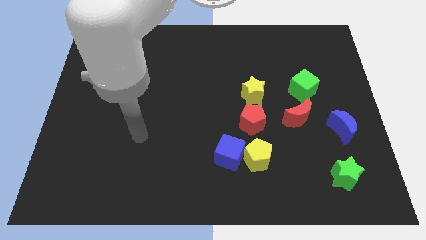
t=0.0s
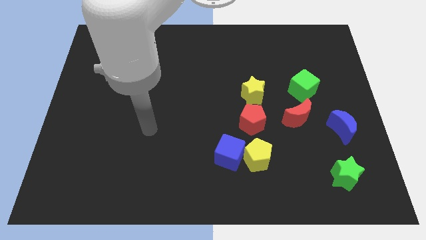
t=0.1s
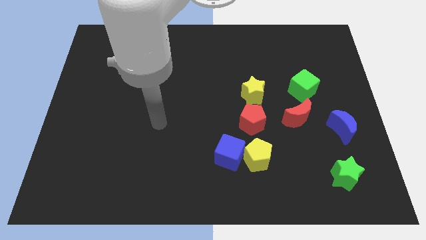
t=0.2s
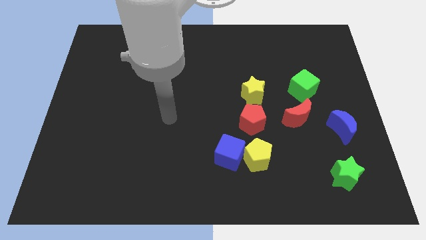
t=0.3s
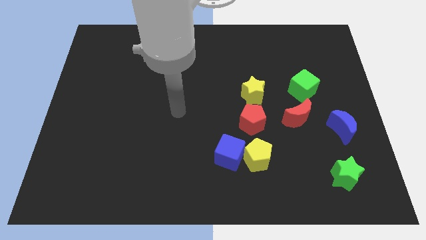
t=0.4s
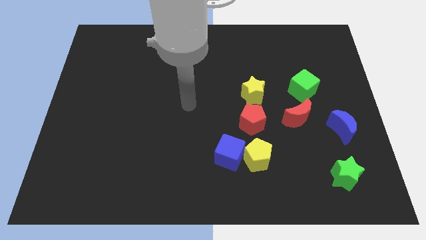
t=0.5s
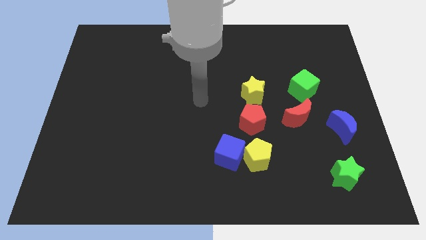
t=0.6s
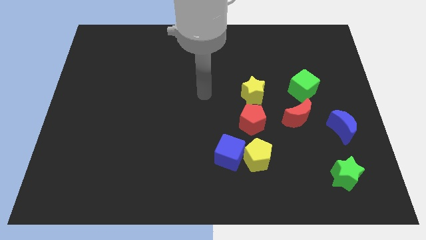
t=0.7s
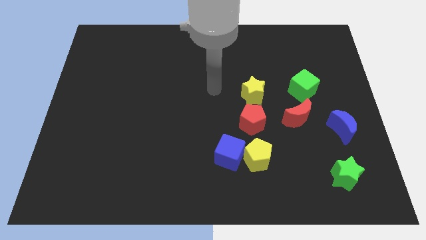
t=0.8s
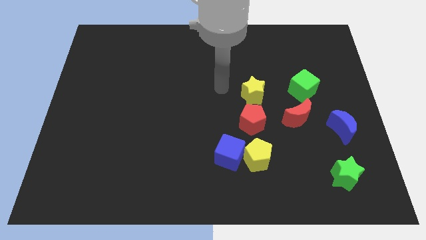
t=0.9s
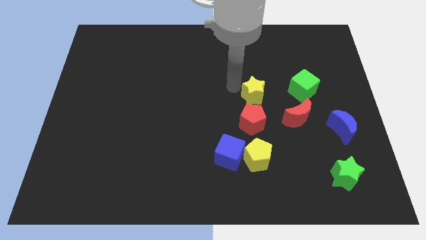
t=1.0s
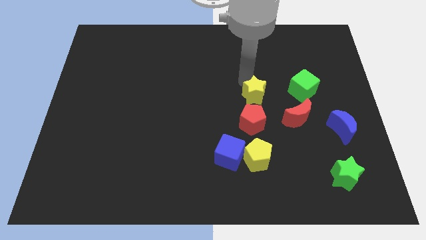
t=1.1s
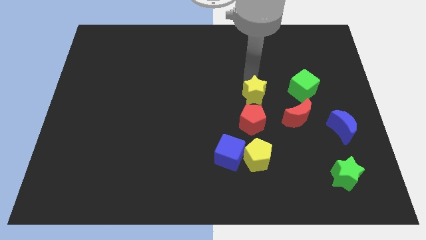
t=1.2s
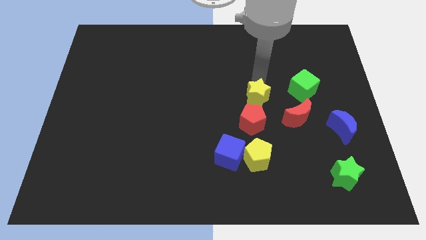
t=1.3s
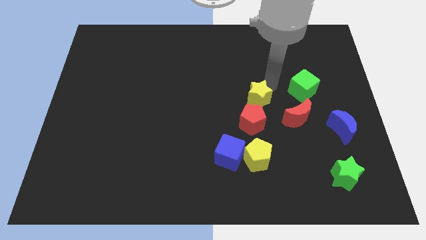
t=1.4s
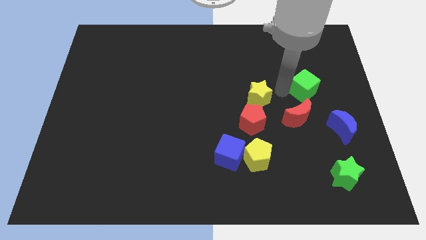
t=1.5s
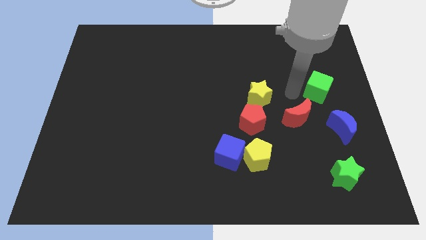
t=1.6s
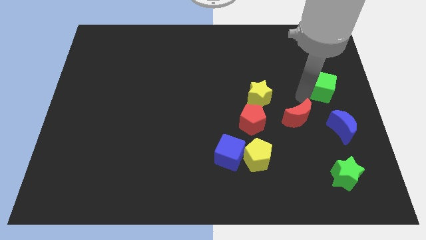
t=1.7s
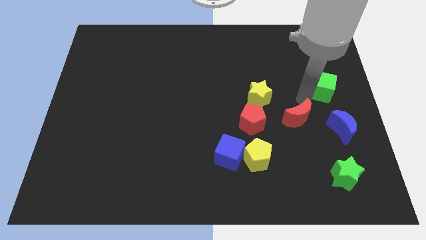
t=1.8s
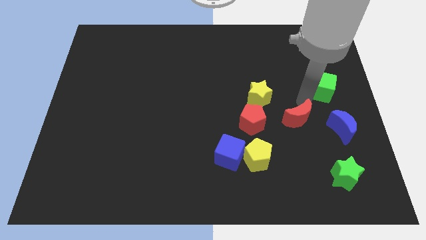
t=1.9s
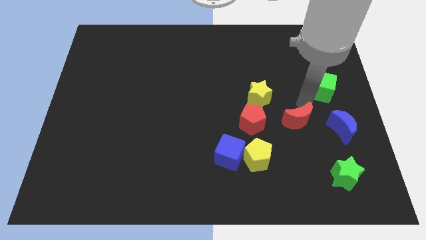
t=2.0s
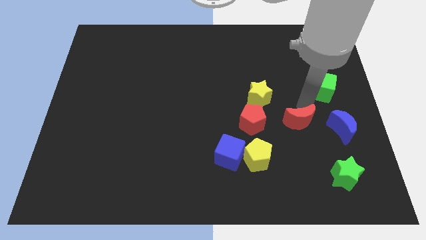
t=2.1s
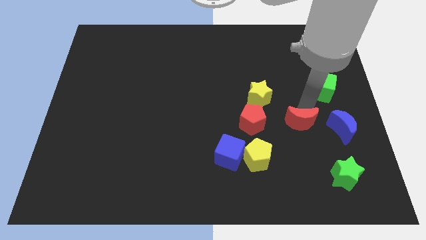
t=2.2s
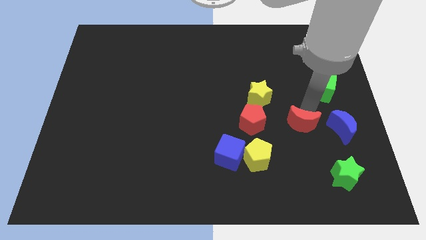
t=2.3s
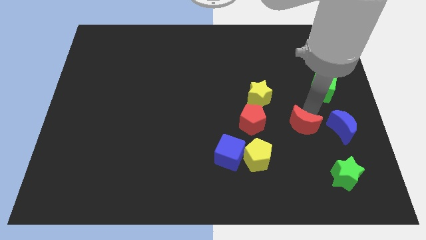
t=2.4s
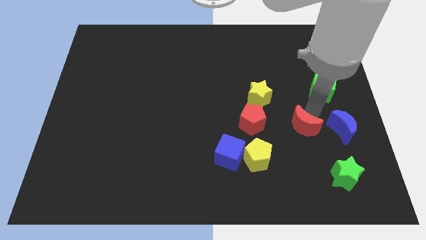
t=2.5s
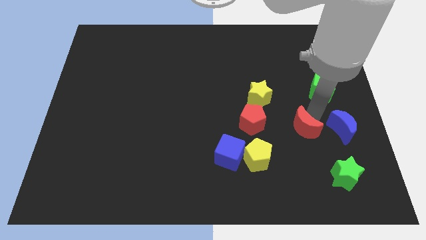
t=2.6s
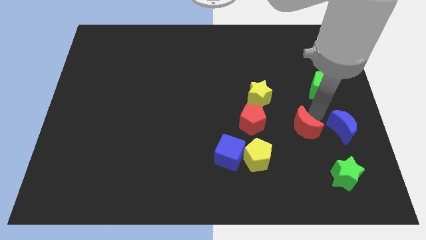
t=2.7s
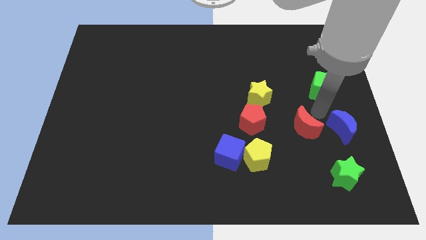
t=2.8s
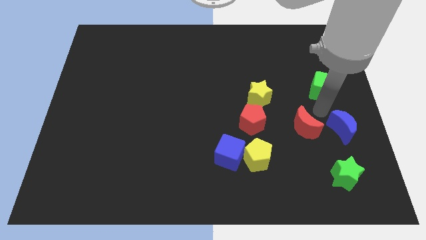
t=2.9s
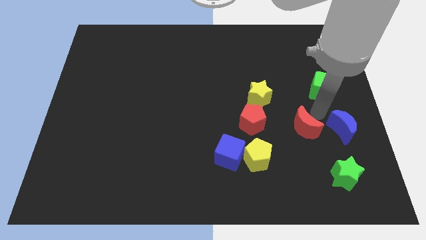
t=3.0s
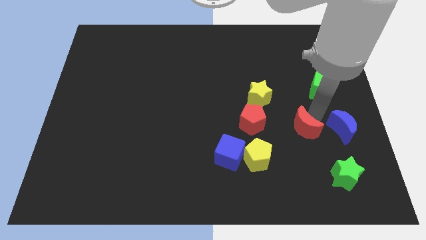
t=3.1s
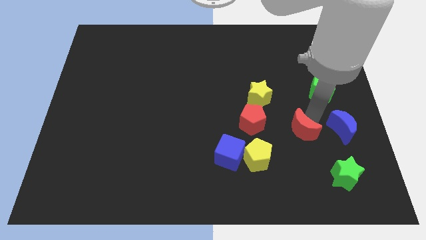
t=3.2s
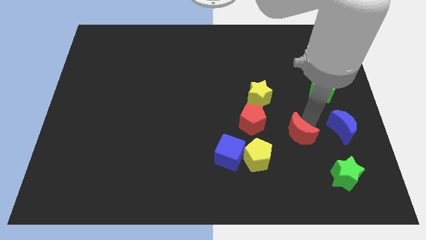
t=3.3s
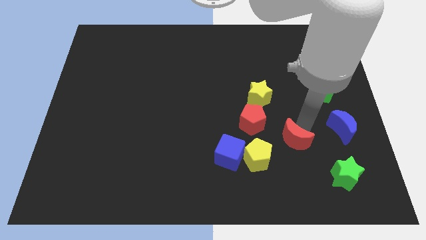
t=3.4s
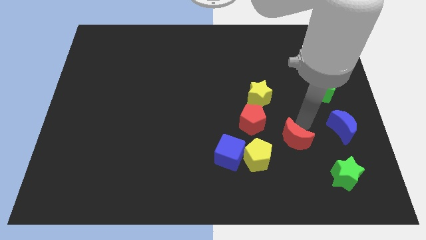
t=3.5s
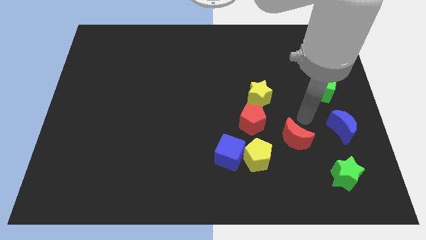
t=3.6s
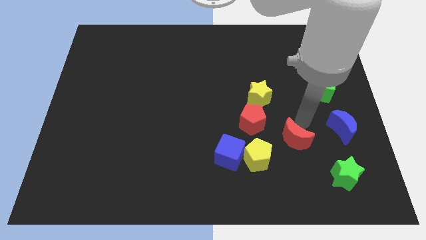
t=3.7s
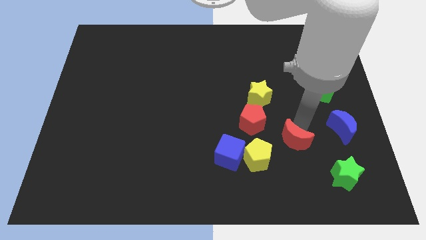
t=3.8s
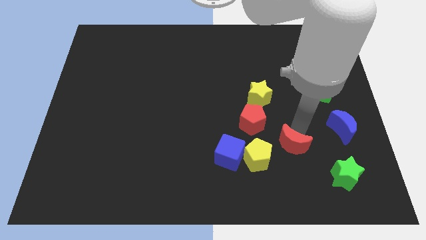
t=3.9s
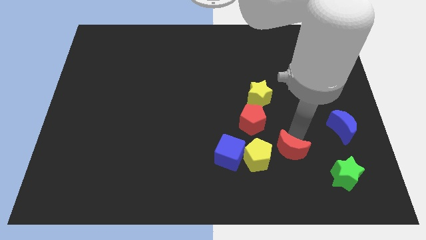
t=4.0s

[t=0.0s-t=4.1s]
slightly move the red moon diagonally down and to the left

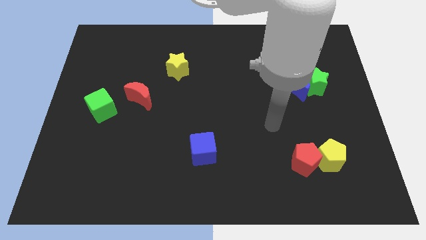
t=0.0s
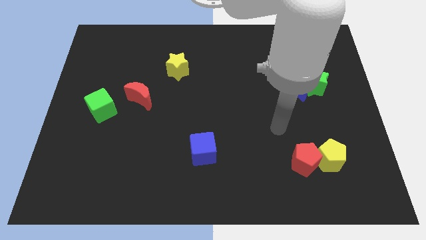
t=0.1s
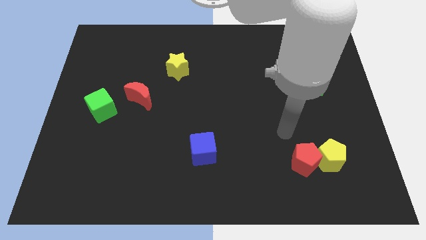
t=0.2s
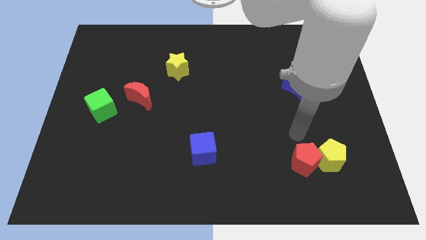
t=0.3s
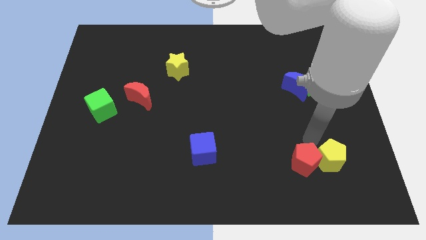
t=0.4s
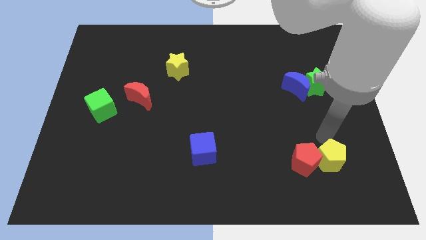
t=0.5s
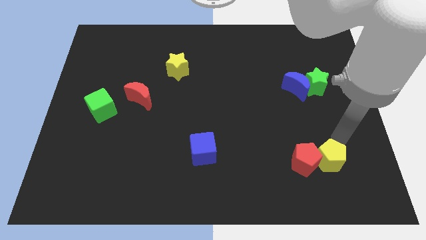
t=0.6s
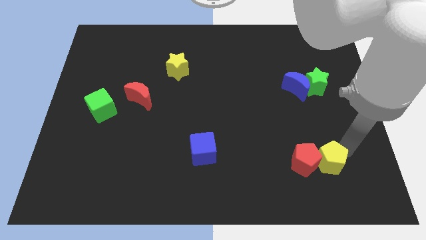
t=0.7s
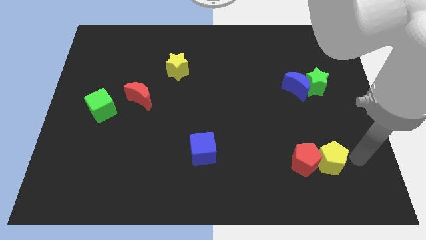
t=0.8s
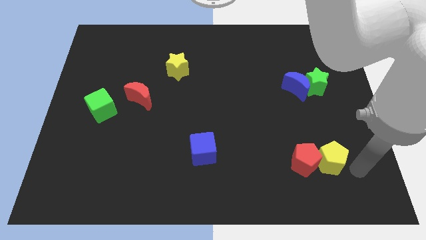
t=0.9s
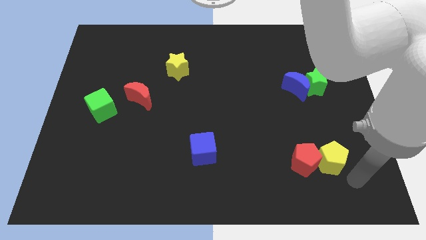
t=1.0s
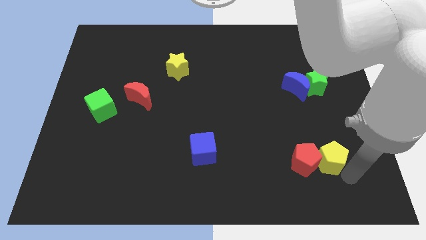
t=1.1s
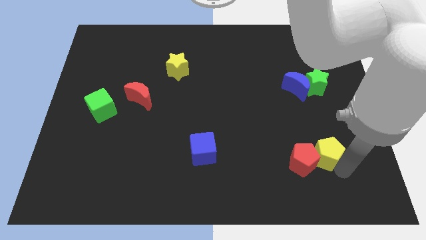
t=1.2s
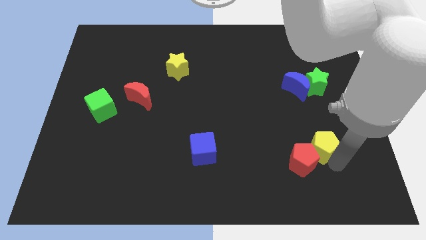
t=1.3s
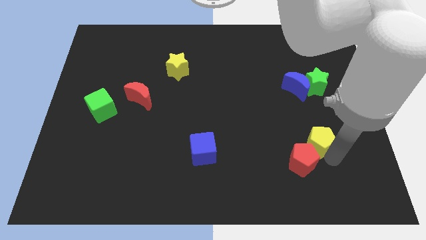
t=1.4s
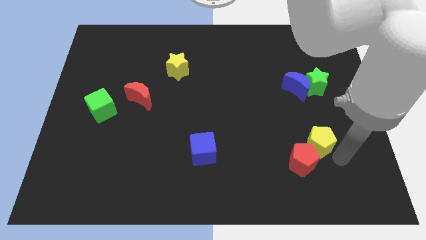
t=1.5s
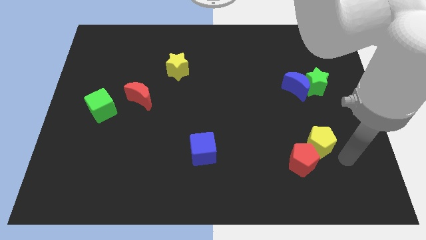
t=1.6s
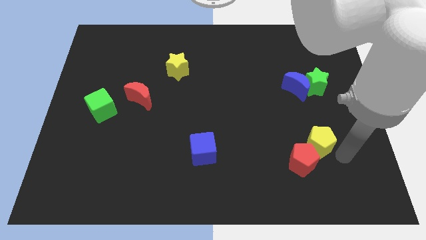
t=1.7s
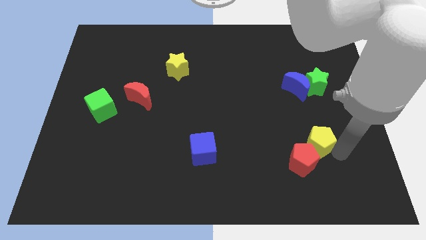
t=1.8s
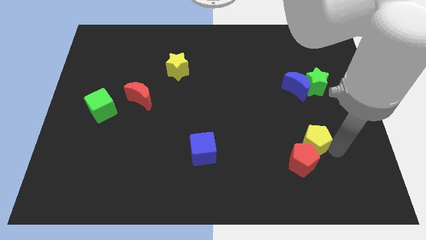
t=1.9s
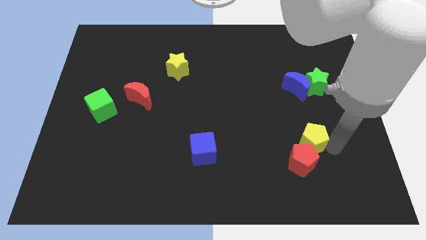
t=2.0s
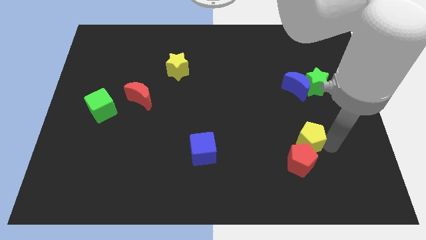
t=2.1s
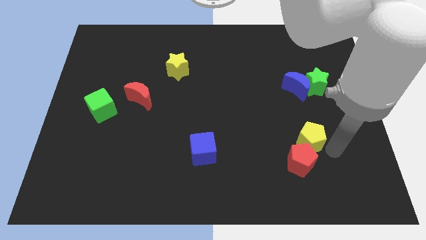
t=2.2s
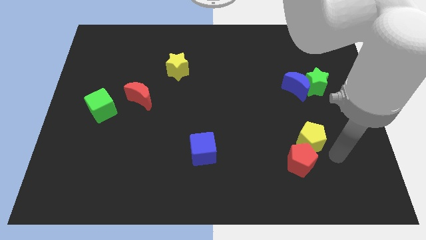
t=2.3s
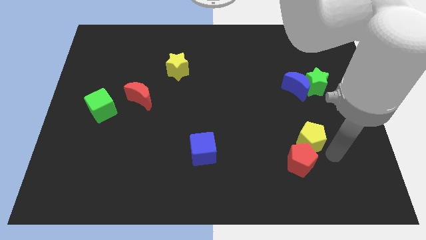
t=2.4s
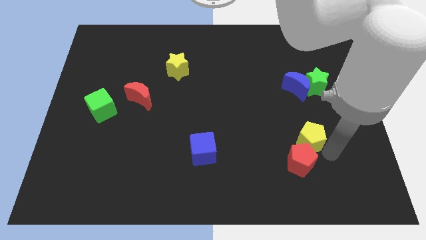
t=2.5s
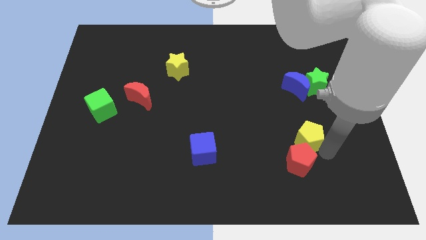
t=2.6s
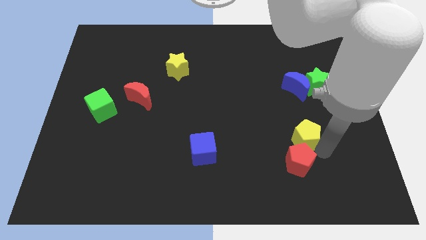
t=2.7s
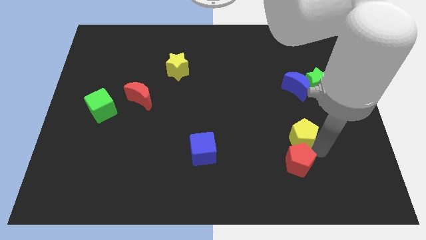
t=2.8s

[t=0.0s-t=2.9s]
slide the yellow pentagon up and to the left a little bit

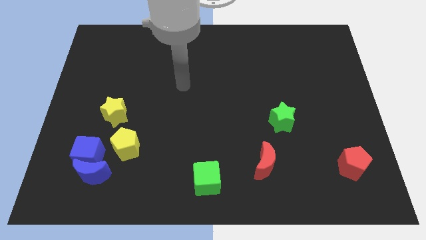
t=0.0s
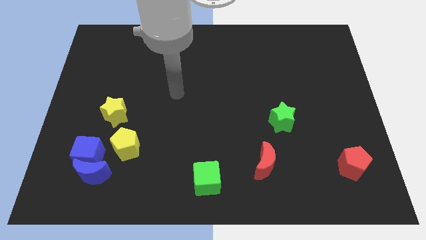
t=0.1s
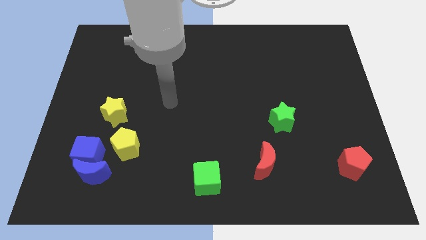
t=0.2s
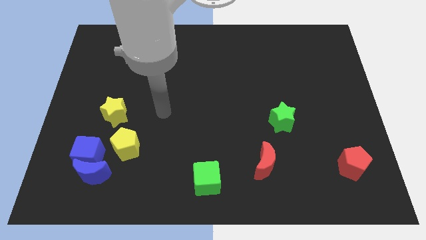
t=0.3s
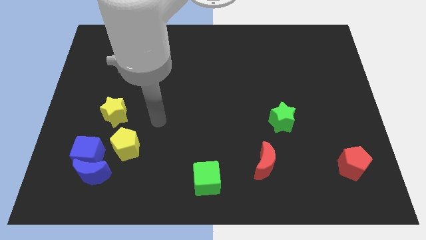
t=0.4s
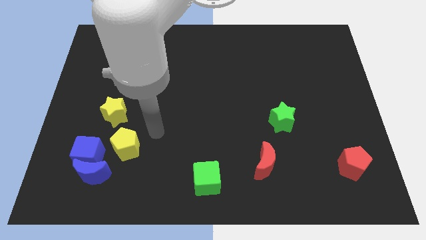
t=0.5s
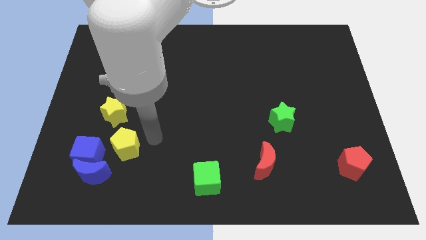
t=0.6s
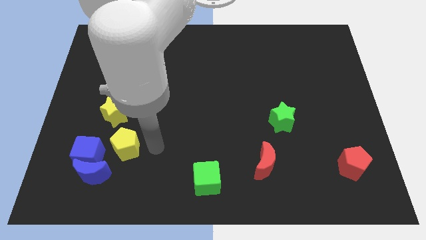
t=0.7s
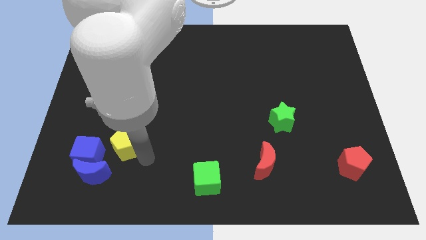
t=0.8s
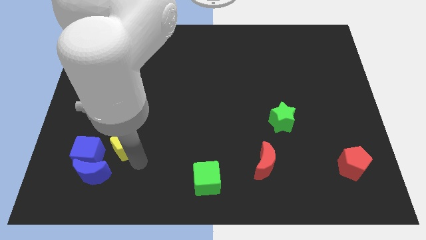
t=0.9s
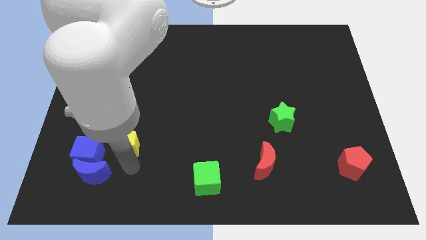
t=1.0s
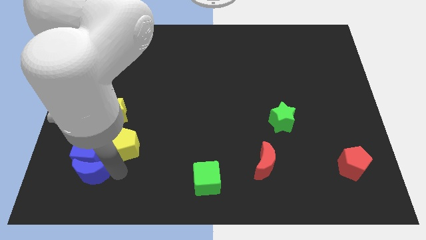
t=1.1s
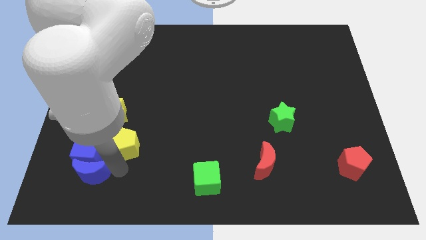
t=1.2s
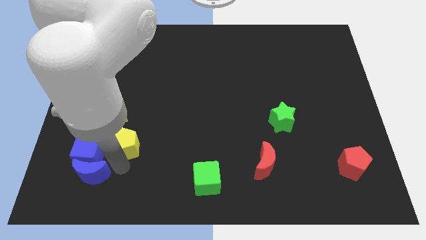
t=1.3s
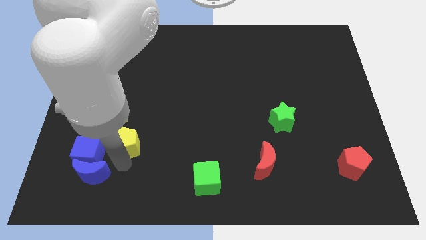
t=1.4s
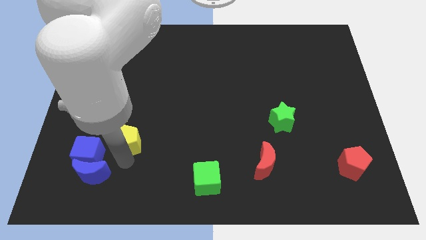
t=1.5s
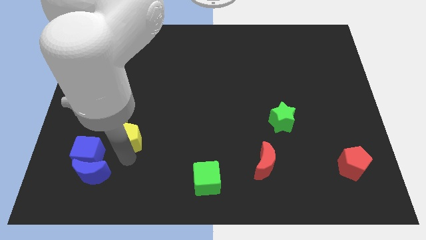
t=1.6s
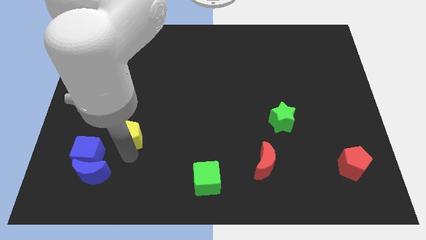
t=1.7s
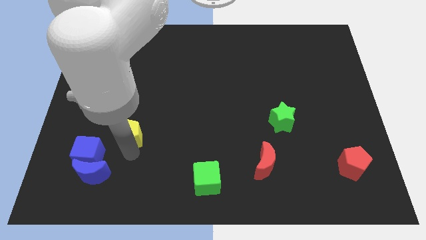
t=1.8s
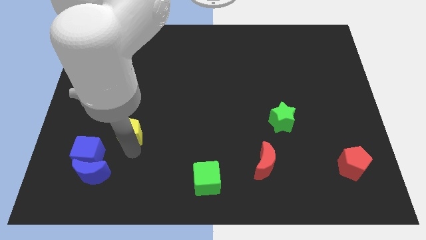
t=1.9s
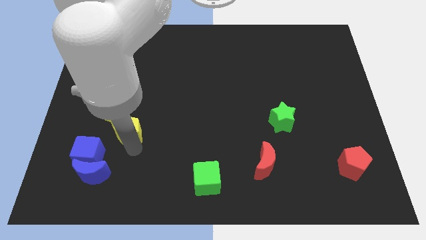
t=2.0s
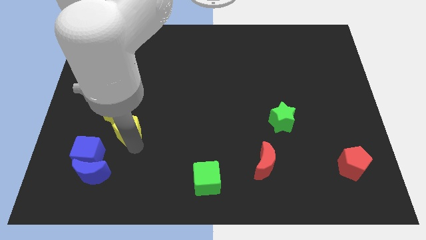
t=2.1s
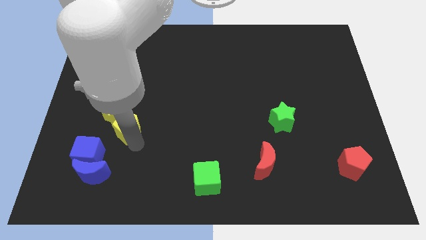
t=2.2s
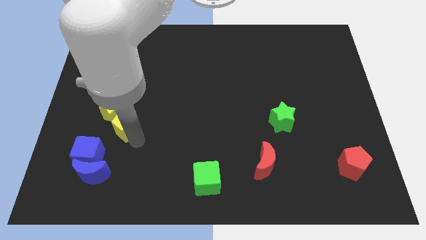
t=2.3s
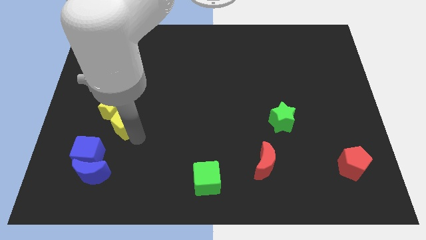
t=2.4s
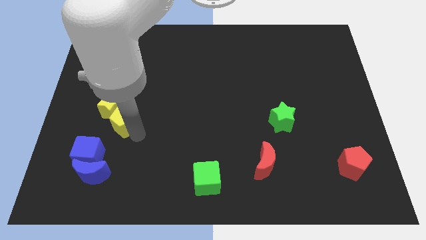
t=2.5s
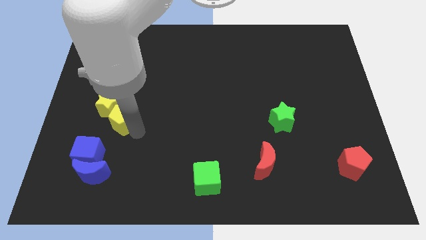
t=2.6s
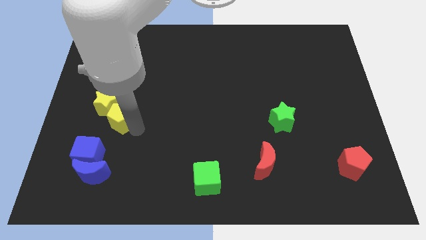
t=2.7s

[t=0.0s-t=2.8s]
slide the yellow pentagon up a bit
